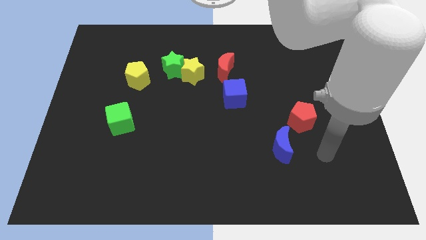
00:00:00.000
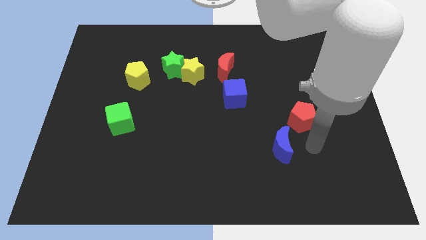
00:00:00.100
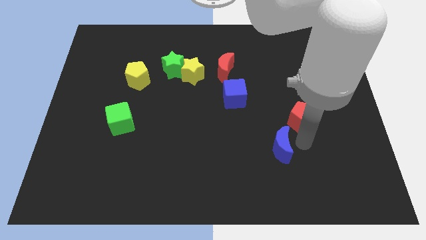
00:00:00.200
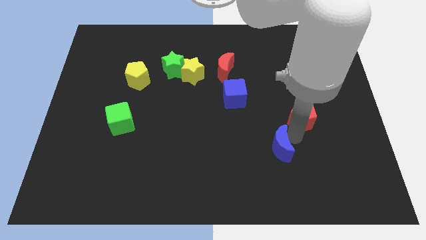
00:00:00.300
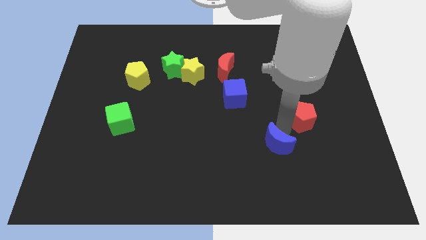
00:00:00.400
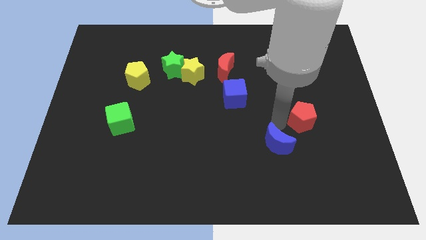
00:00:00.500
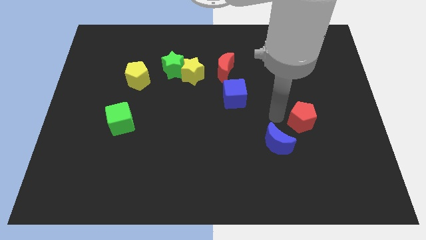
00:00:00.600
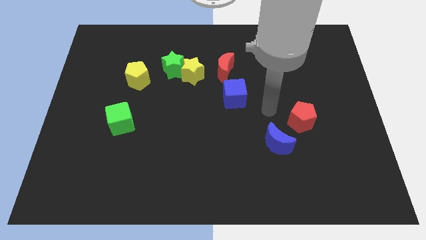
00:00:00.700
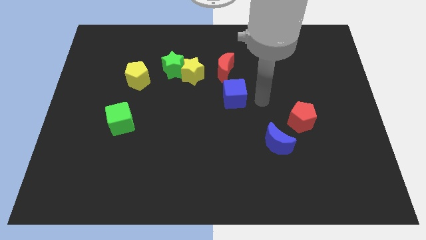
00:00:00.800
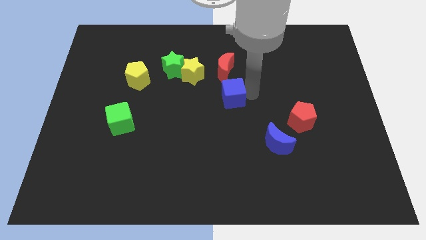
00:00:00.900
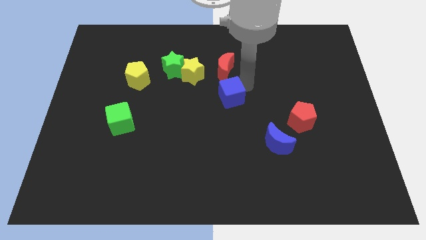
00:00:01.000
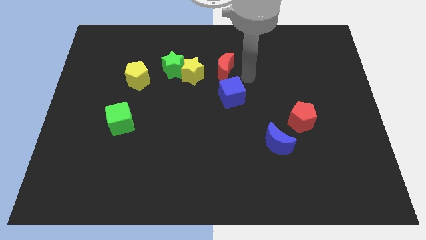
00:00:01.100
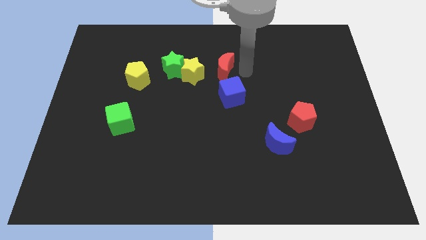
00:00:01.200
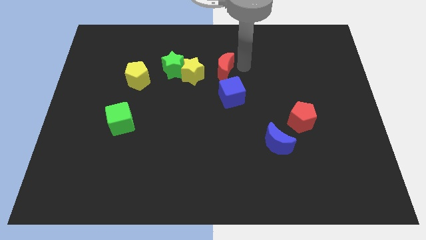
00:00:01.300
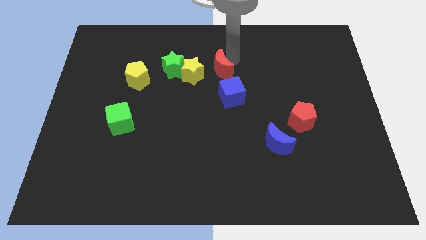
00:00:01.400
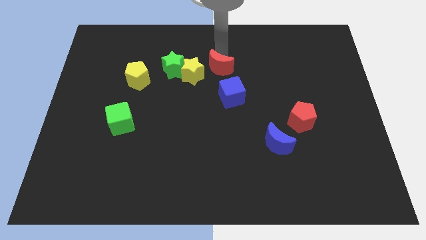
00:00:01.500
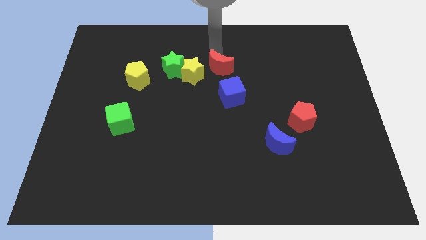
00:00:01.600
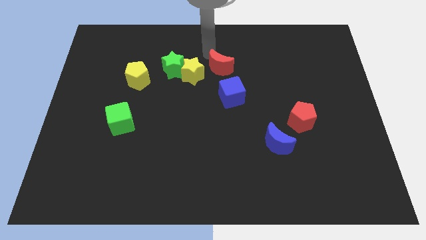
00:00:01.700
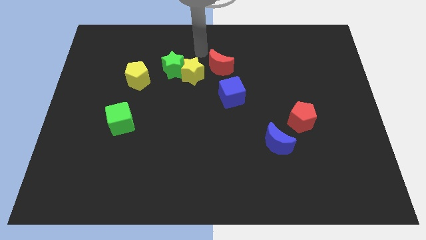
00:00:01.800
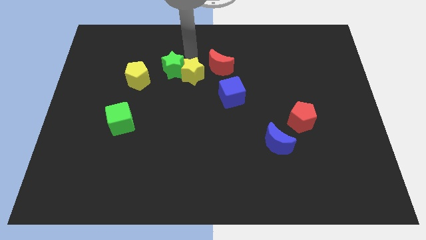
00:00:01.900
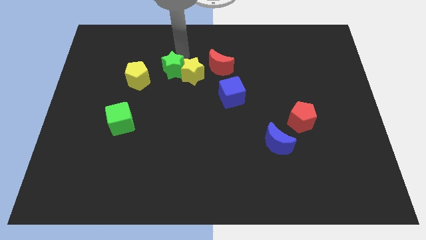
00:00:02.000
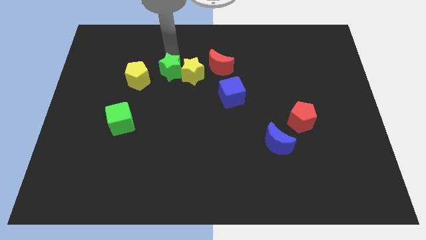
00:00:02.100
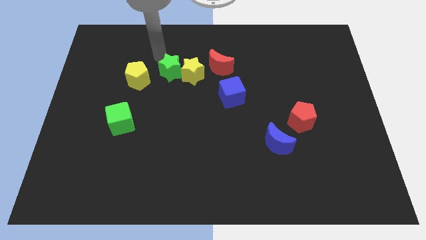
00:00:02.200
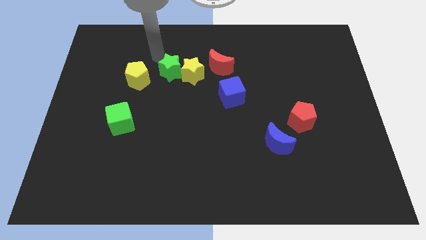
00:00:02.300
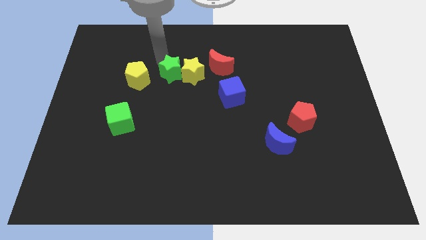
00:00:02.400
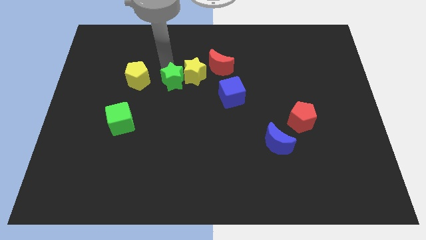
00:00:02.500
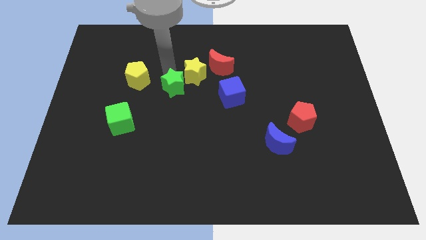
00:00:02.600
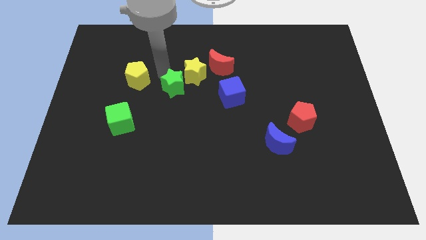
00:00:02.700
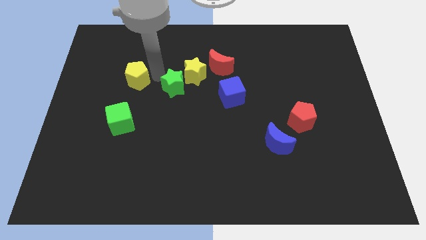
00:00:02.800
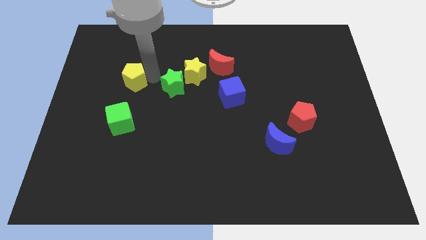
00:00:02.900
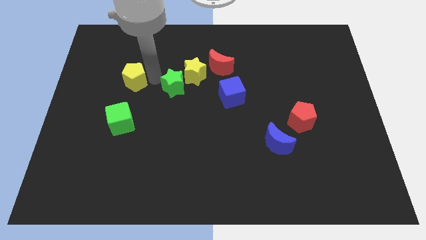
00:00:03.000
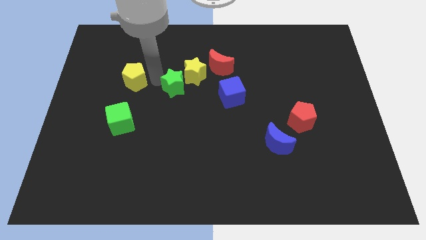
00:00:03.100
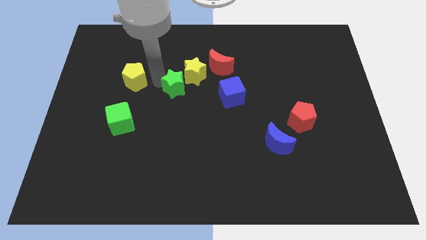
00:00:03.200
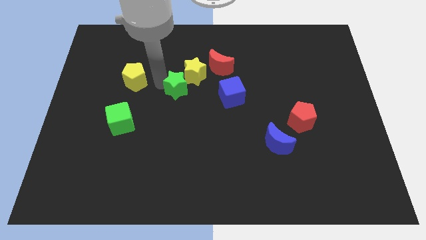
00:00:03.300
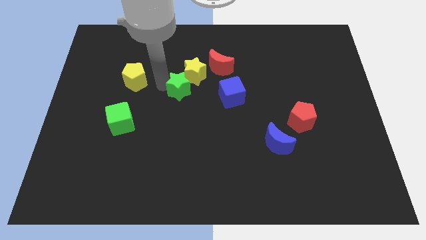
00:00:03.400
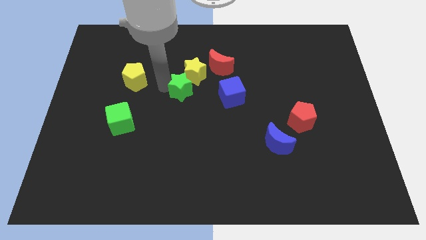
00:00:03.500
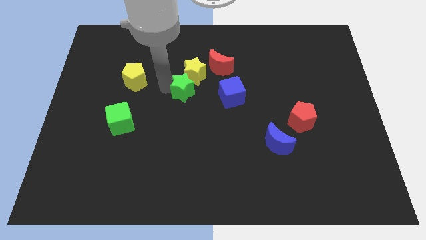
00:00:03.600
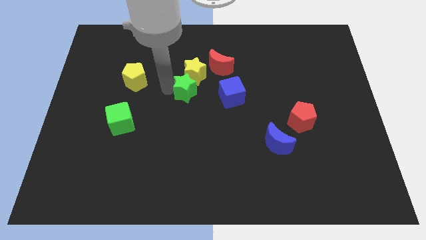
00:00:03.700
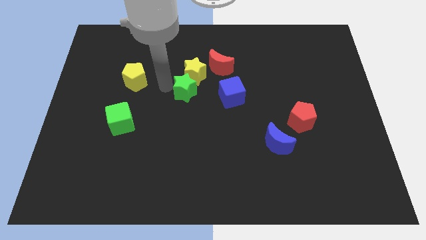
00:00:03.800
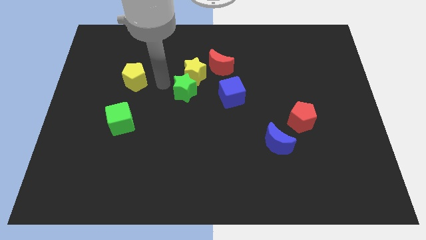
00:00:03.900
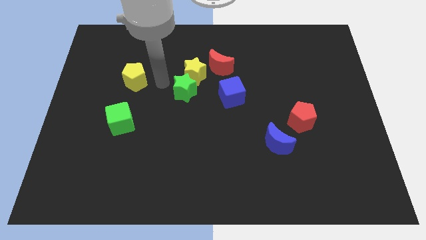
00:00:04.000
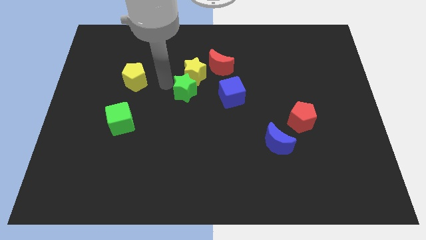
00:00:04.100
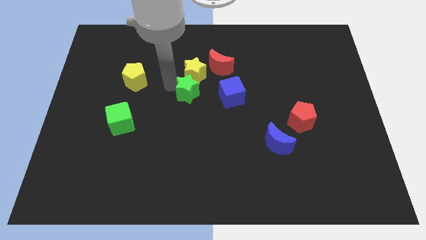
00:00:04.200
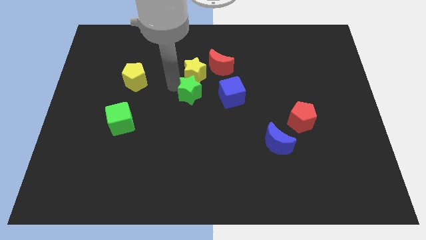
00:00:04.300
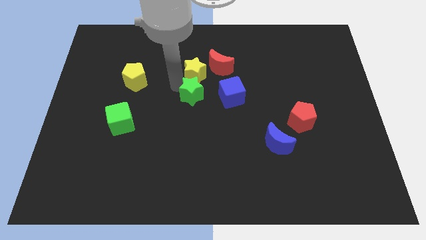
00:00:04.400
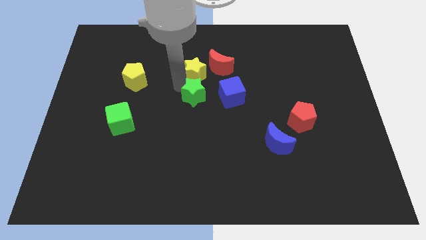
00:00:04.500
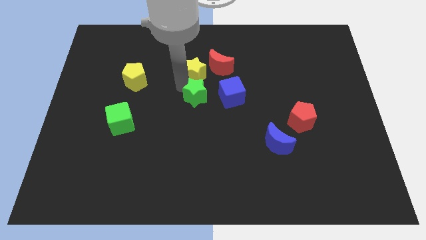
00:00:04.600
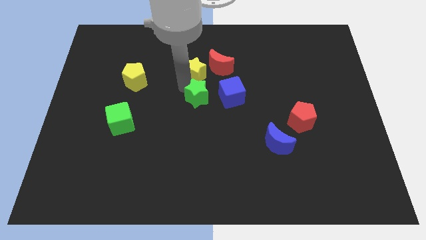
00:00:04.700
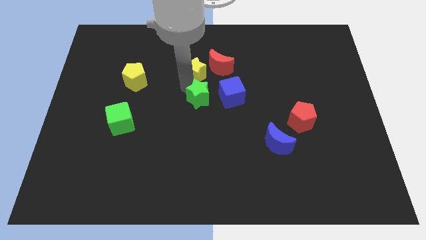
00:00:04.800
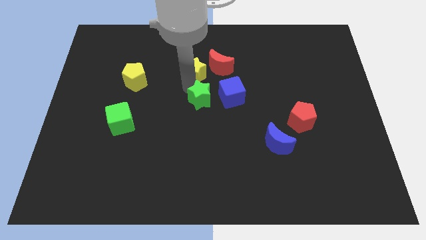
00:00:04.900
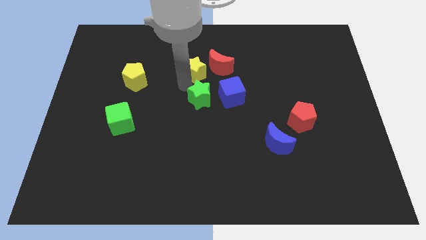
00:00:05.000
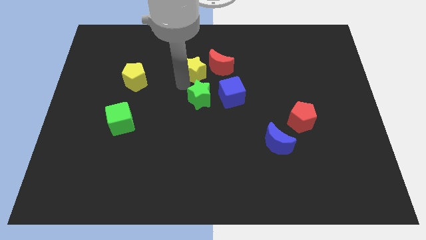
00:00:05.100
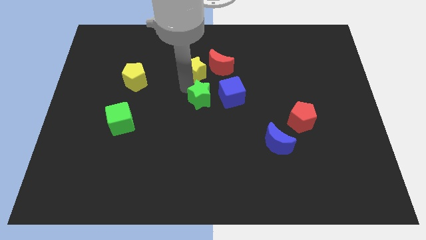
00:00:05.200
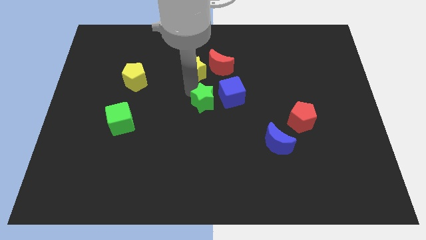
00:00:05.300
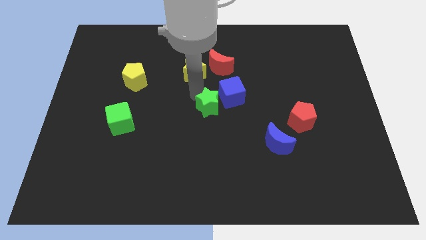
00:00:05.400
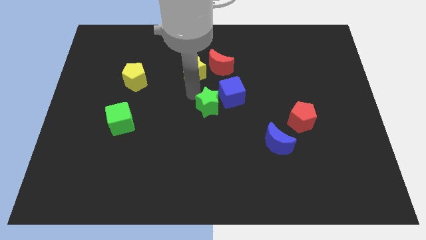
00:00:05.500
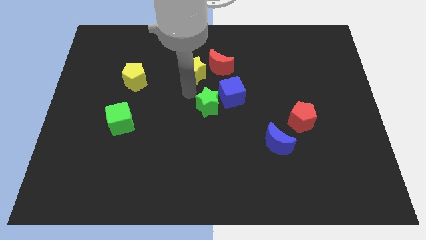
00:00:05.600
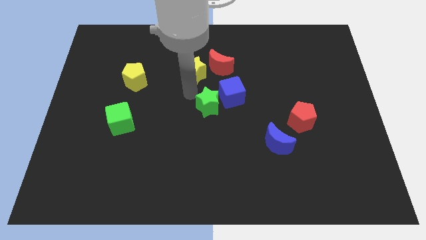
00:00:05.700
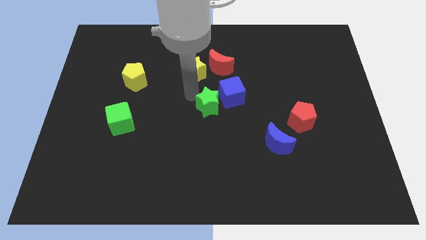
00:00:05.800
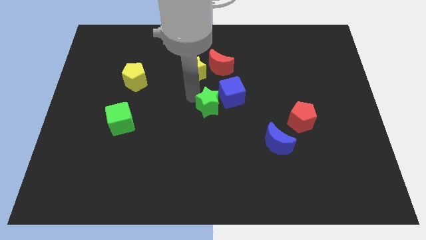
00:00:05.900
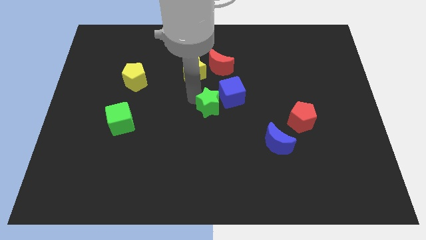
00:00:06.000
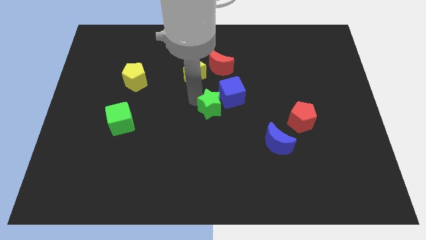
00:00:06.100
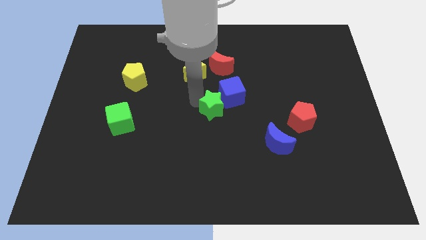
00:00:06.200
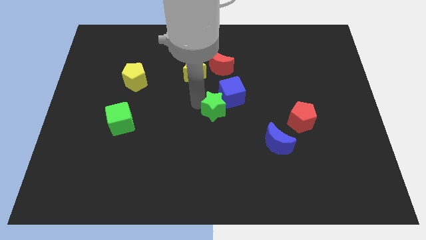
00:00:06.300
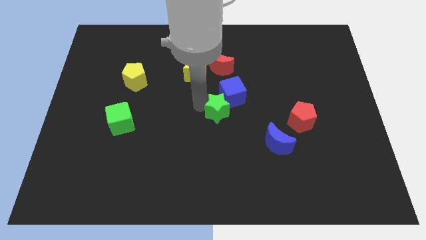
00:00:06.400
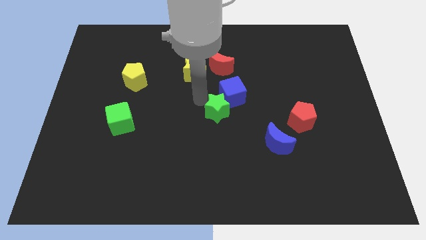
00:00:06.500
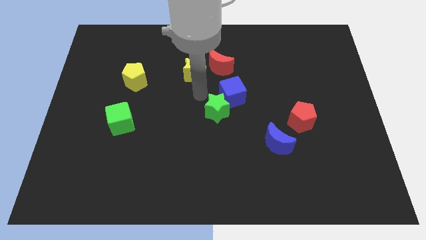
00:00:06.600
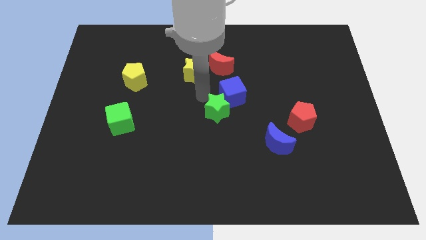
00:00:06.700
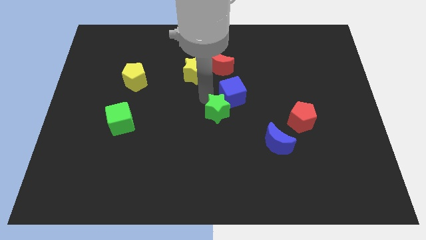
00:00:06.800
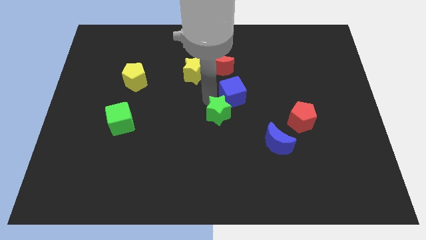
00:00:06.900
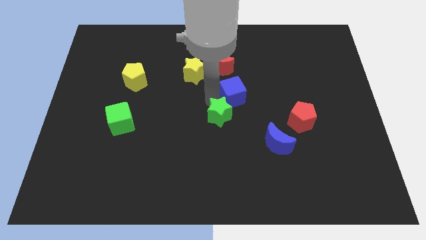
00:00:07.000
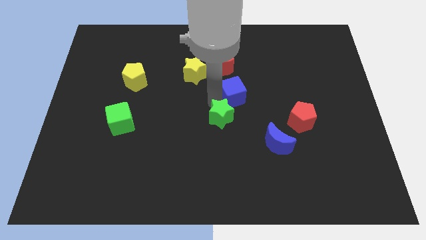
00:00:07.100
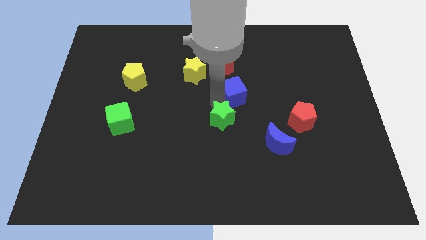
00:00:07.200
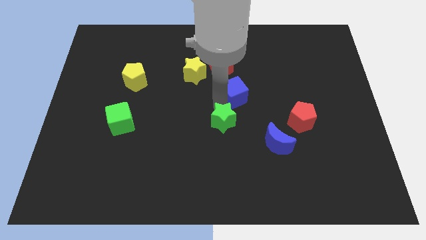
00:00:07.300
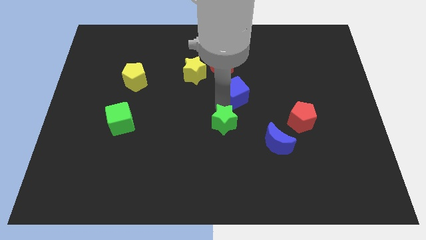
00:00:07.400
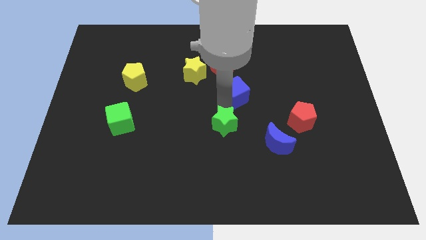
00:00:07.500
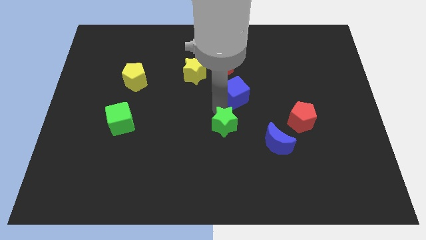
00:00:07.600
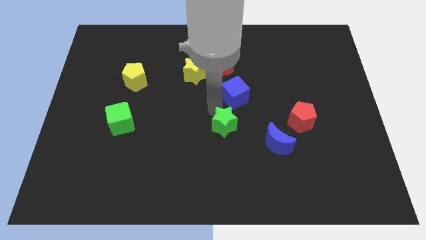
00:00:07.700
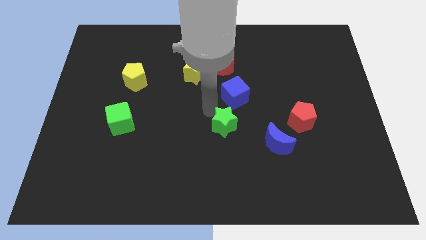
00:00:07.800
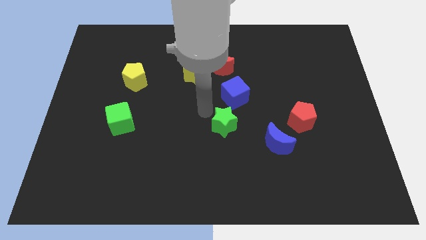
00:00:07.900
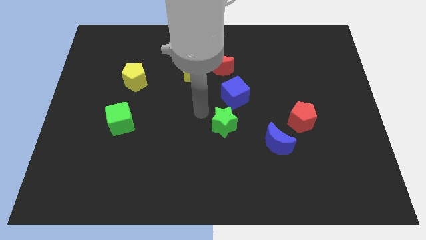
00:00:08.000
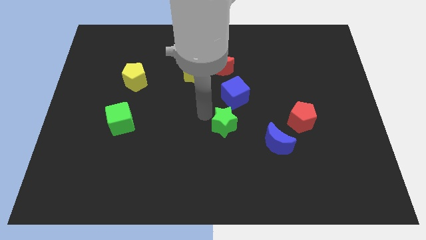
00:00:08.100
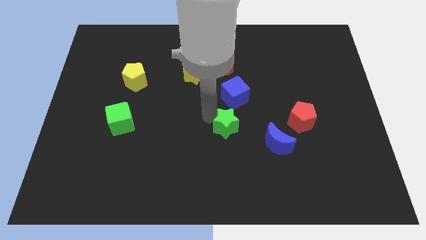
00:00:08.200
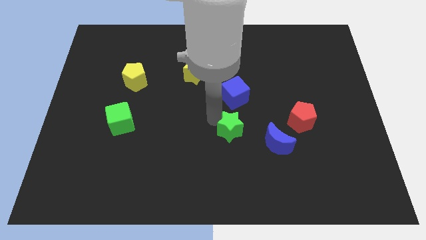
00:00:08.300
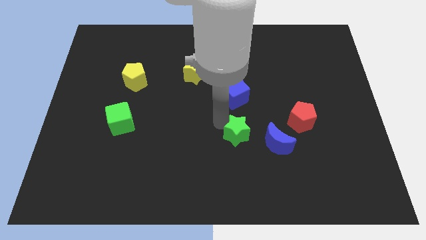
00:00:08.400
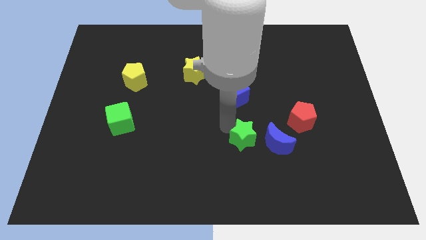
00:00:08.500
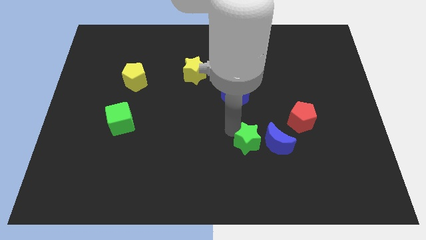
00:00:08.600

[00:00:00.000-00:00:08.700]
slide the green star diagonally down and to the left of the blue moon
